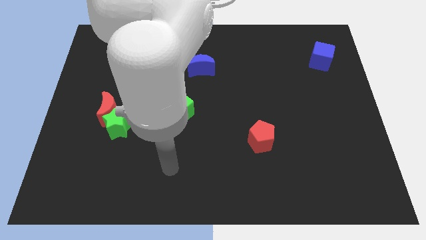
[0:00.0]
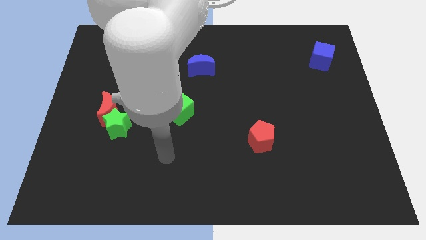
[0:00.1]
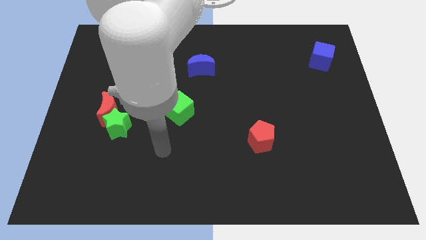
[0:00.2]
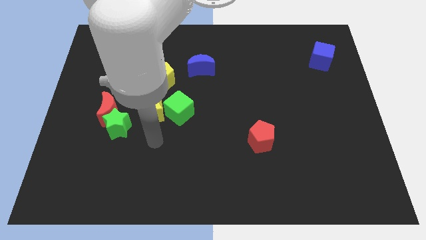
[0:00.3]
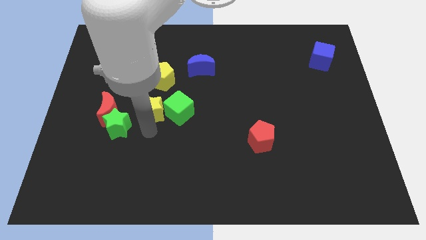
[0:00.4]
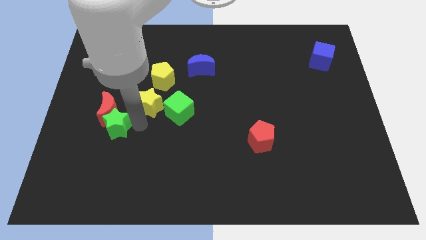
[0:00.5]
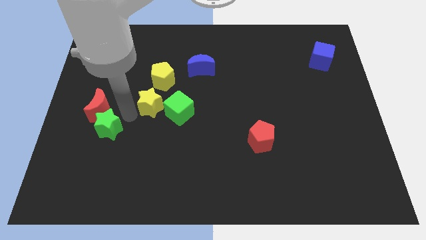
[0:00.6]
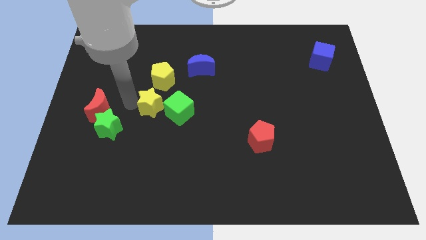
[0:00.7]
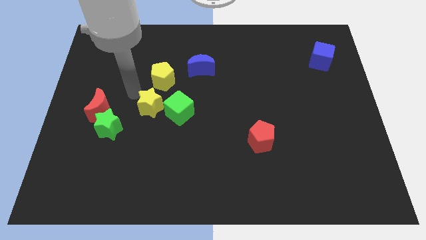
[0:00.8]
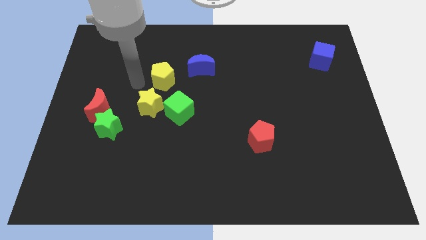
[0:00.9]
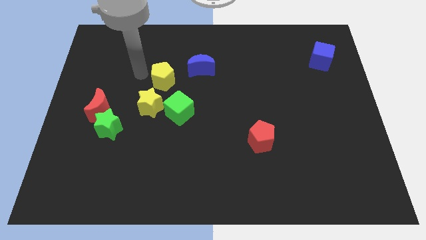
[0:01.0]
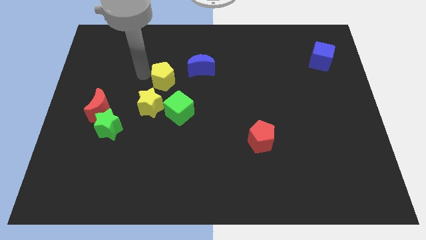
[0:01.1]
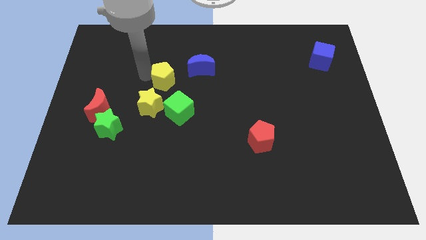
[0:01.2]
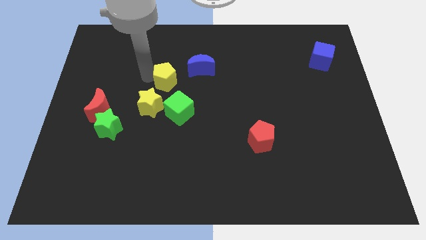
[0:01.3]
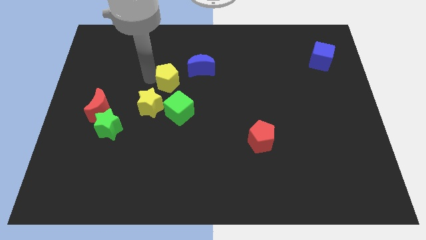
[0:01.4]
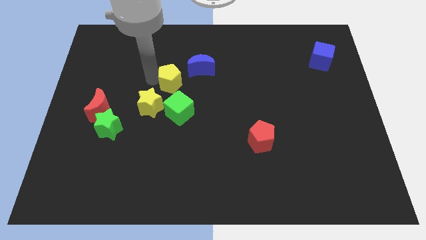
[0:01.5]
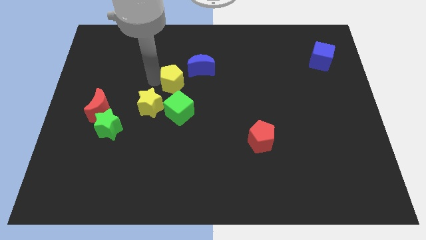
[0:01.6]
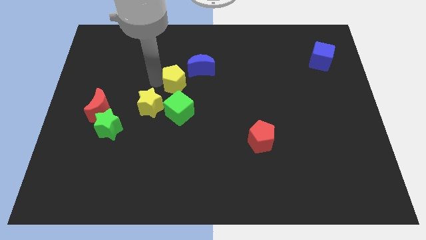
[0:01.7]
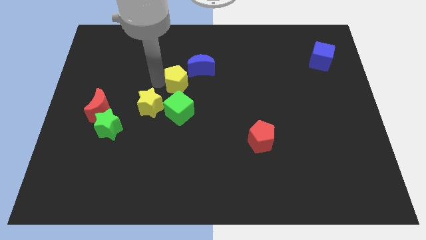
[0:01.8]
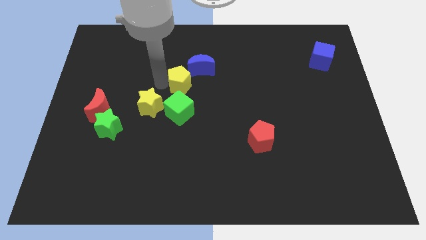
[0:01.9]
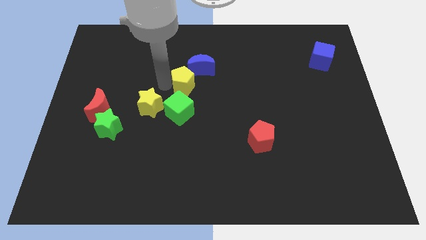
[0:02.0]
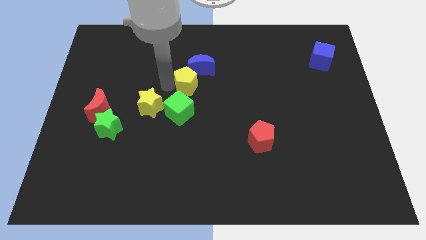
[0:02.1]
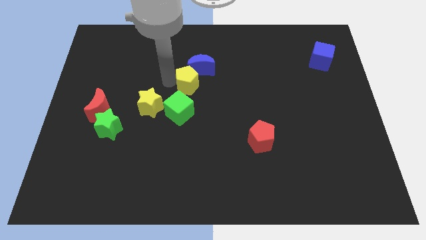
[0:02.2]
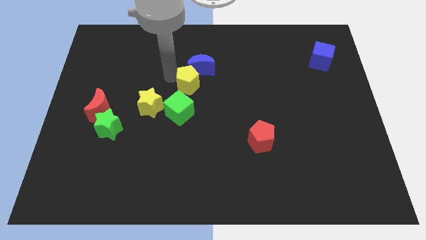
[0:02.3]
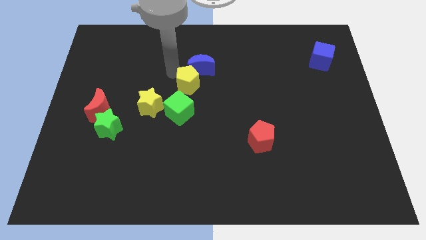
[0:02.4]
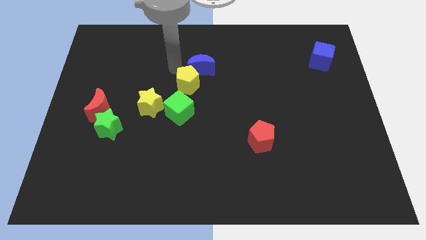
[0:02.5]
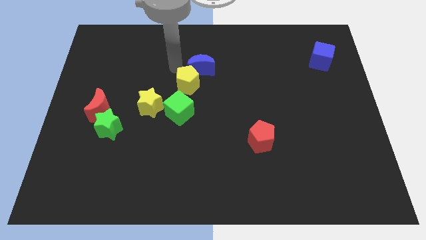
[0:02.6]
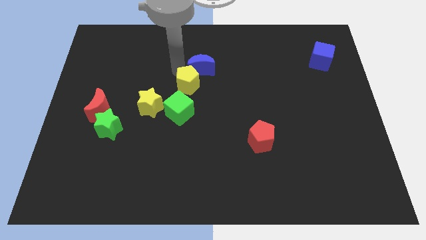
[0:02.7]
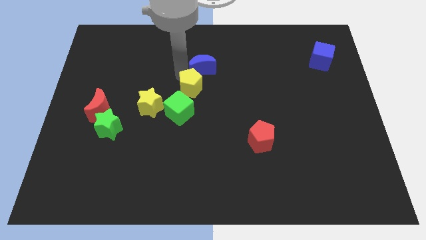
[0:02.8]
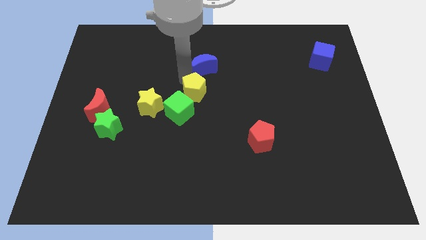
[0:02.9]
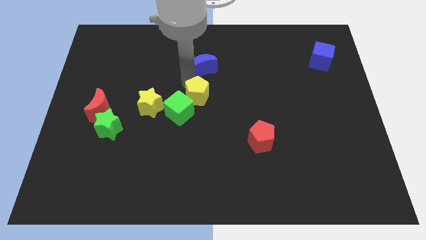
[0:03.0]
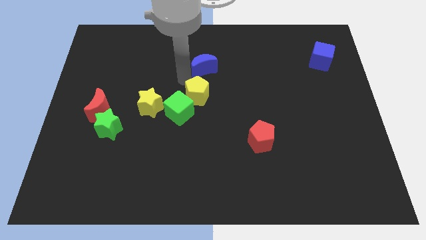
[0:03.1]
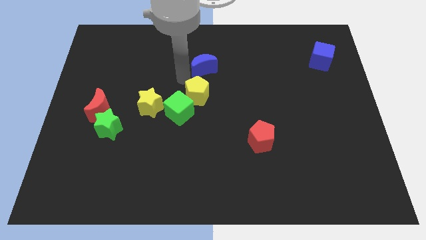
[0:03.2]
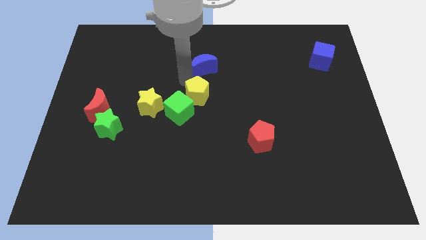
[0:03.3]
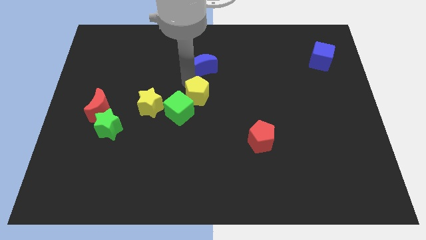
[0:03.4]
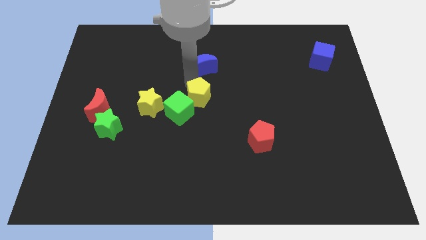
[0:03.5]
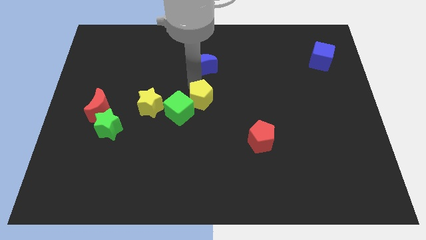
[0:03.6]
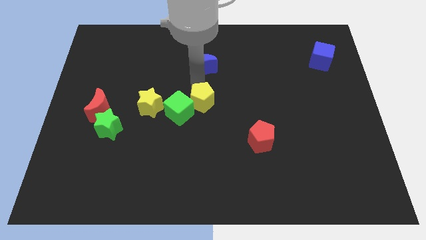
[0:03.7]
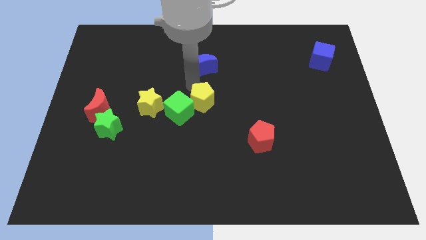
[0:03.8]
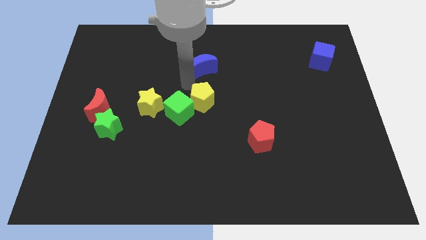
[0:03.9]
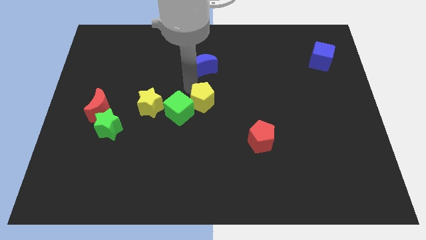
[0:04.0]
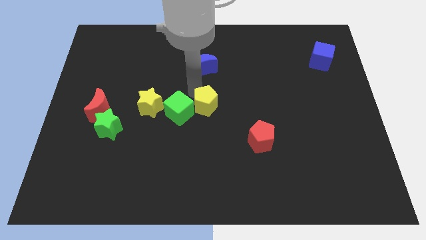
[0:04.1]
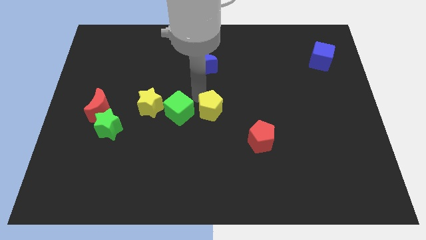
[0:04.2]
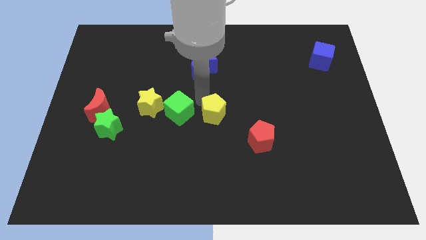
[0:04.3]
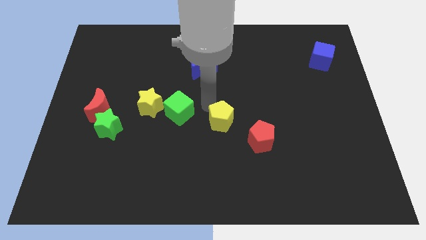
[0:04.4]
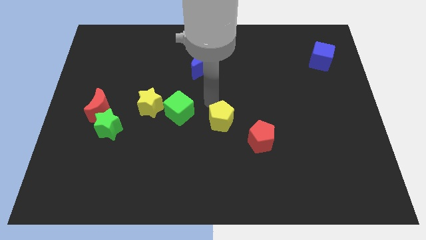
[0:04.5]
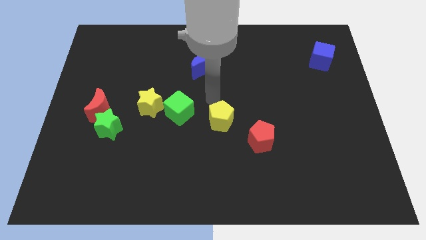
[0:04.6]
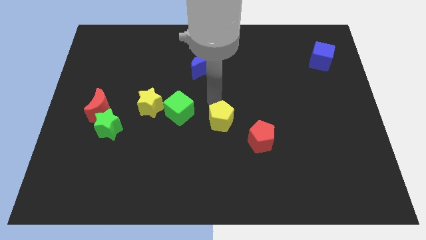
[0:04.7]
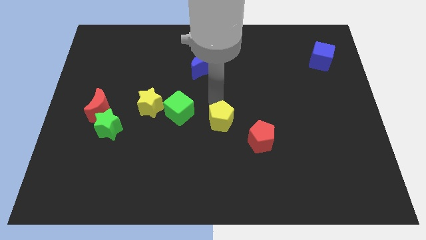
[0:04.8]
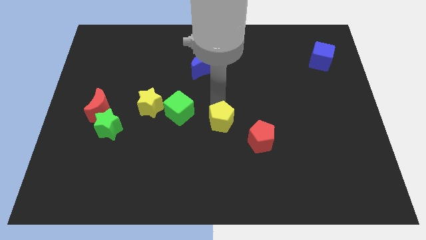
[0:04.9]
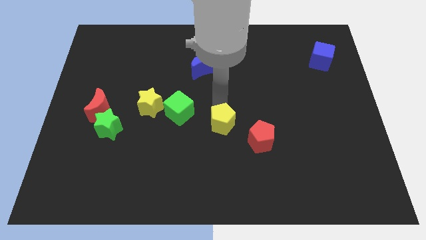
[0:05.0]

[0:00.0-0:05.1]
push the yellow pentagon diagonally downwards and to the right

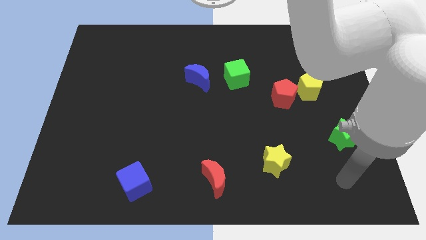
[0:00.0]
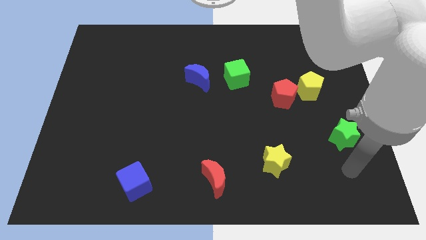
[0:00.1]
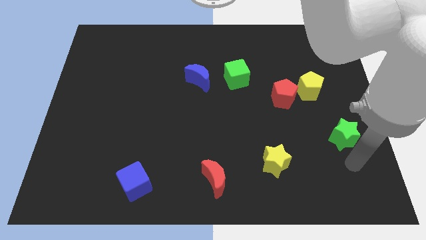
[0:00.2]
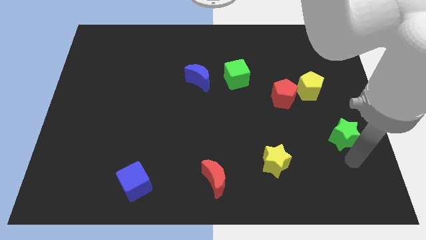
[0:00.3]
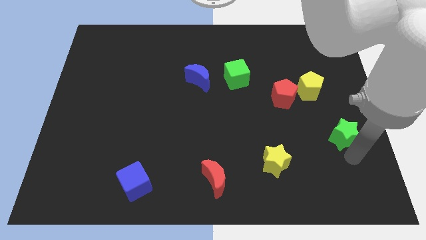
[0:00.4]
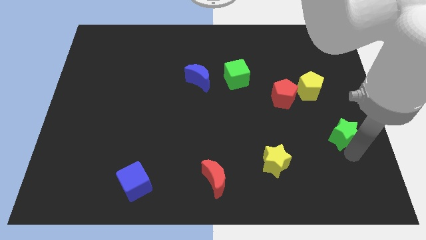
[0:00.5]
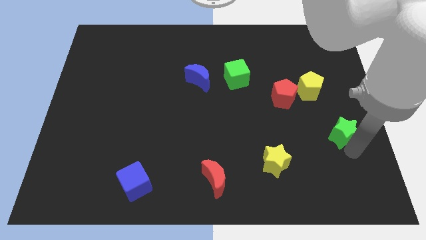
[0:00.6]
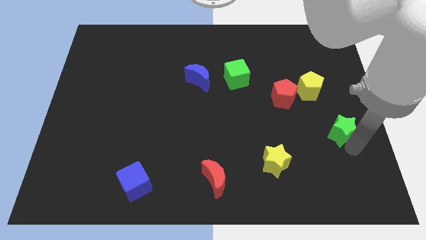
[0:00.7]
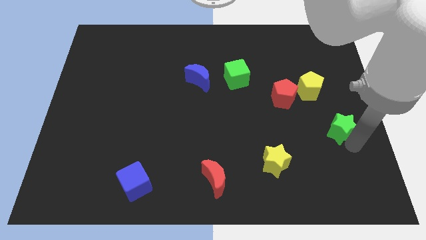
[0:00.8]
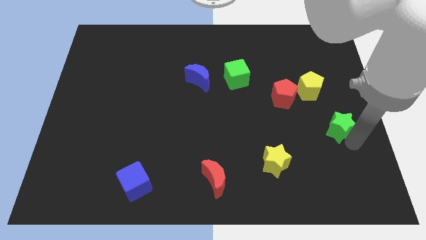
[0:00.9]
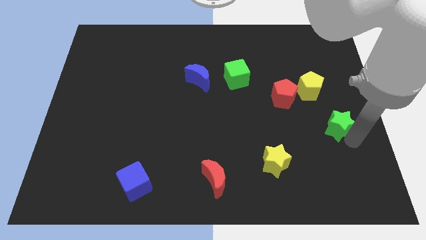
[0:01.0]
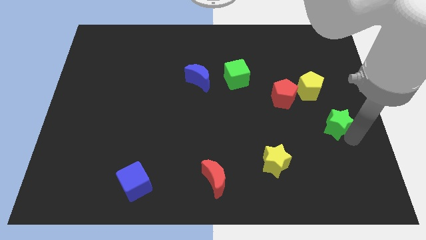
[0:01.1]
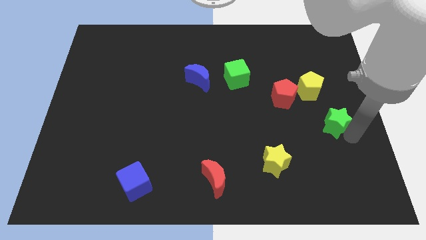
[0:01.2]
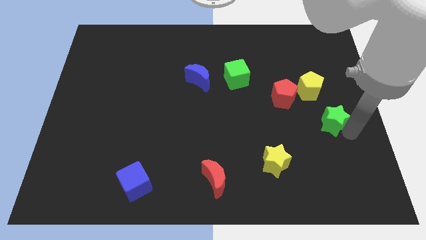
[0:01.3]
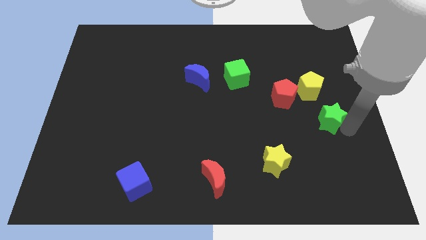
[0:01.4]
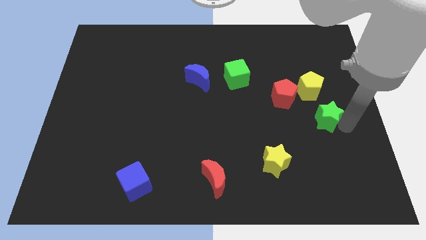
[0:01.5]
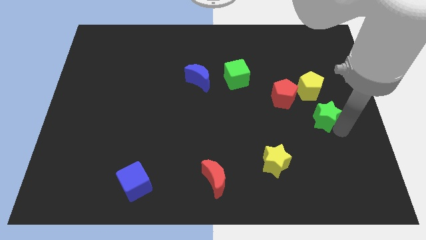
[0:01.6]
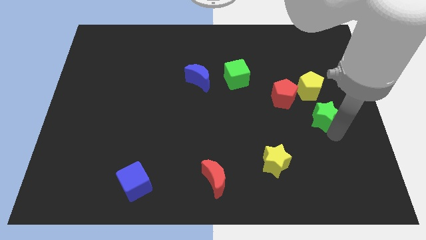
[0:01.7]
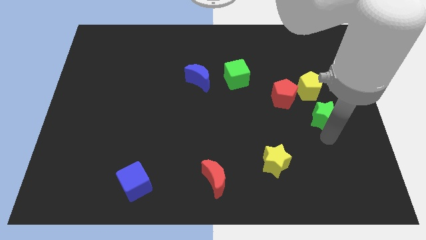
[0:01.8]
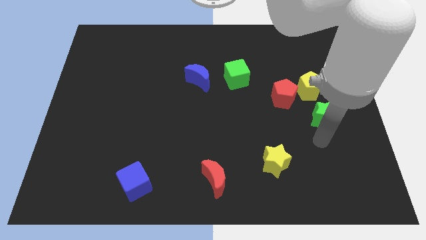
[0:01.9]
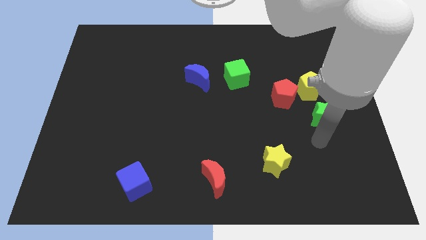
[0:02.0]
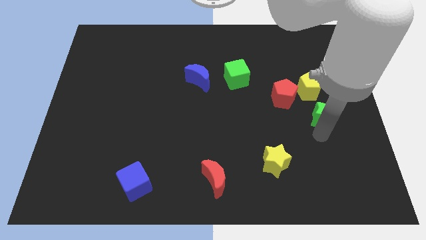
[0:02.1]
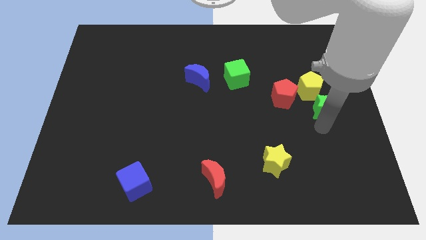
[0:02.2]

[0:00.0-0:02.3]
push the green star a little bit upwards

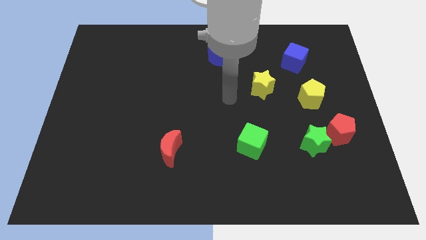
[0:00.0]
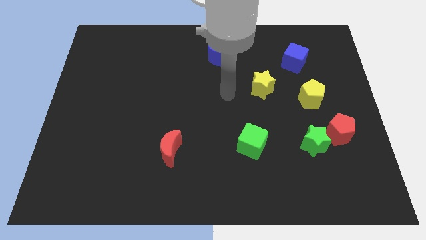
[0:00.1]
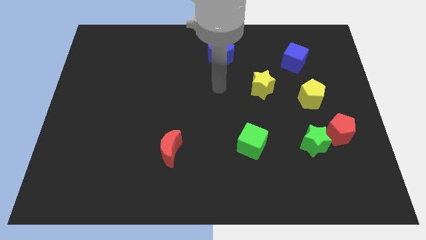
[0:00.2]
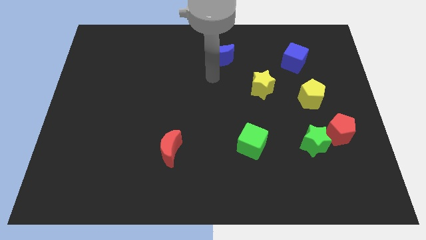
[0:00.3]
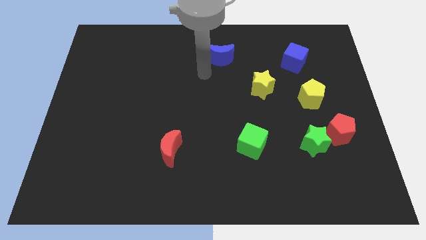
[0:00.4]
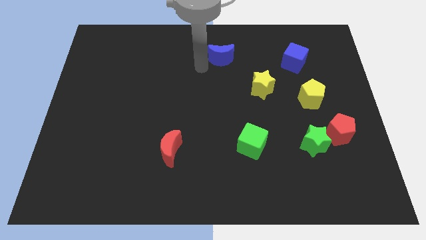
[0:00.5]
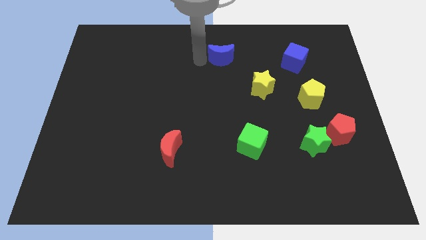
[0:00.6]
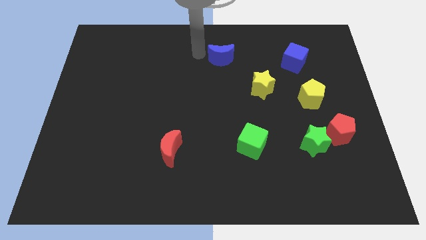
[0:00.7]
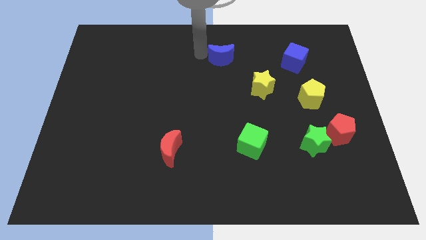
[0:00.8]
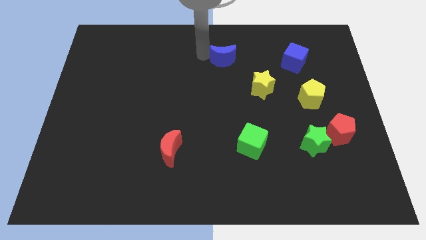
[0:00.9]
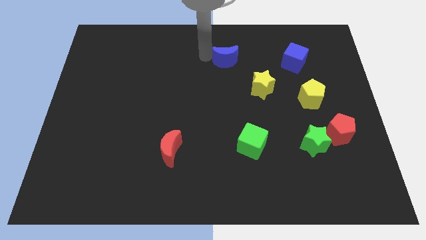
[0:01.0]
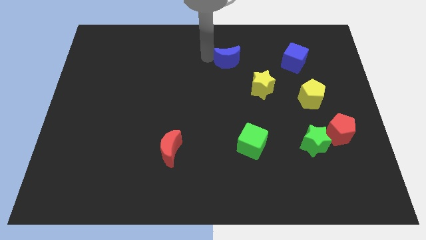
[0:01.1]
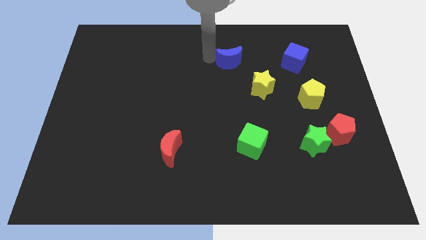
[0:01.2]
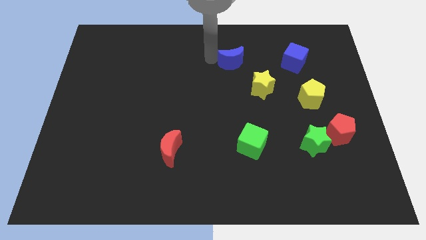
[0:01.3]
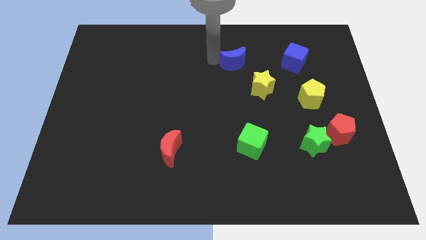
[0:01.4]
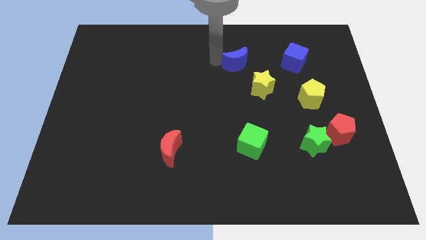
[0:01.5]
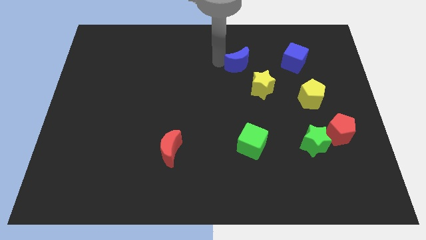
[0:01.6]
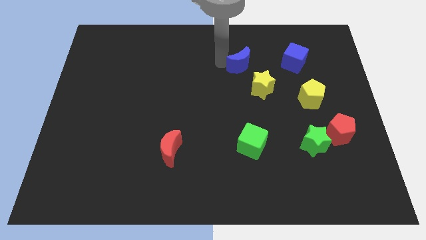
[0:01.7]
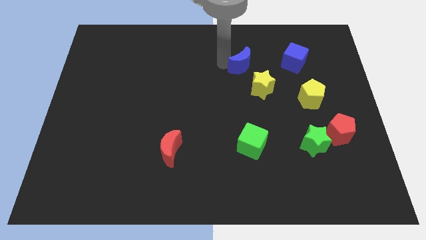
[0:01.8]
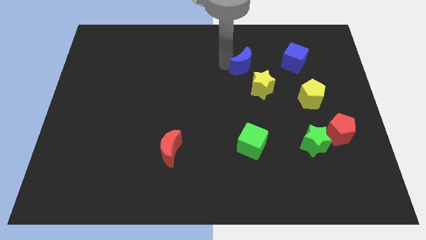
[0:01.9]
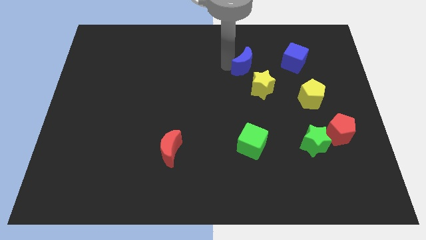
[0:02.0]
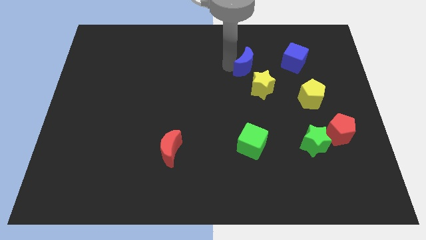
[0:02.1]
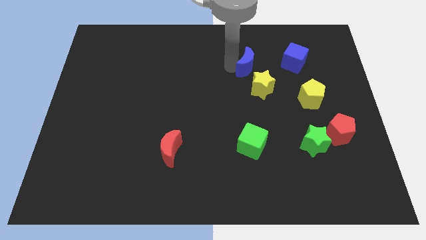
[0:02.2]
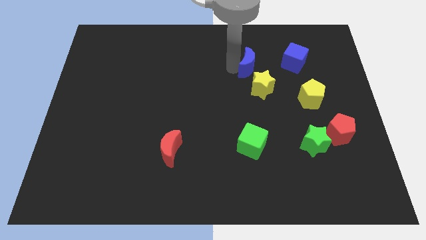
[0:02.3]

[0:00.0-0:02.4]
move the blue moon diagonally downwards and to the right slightly
